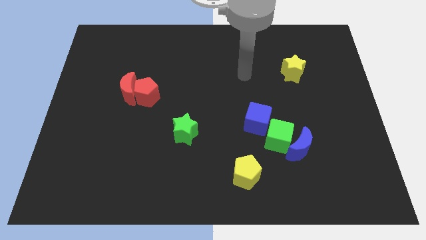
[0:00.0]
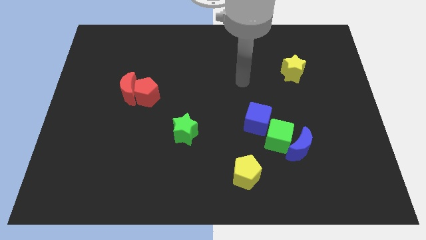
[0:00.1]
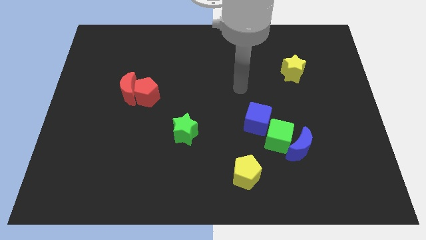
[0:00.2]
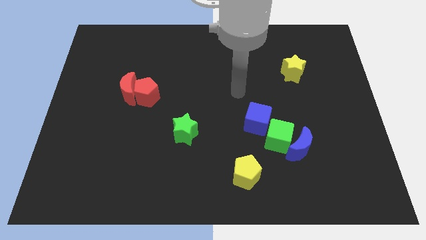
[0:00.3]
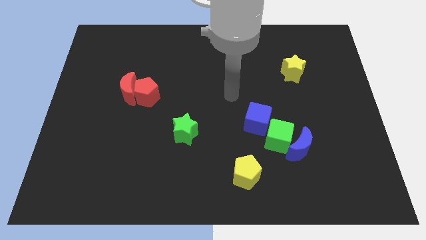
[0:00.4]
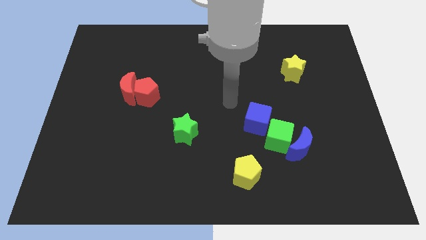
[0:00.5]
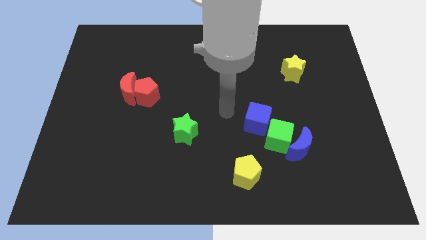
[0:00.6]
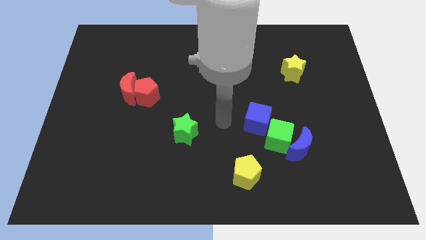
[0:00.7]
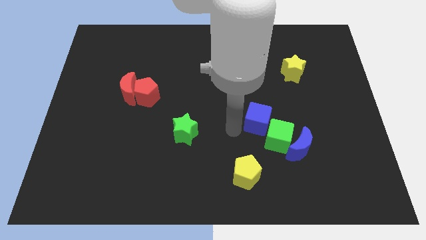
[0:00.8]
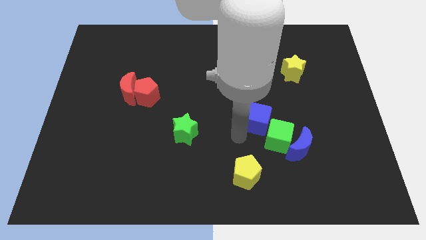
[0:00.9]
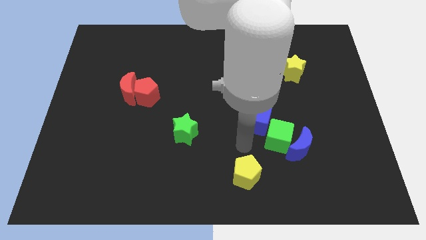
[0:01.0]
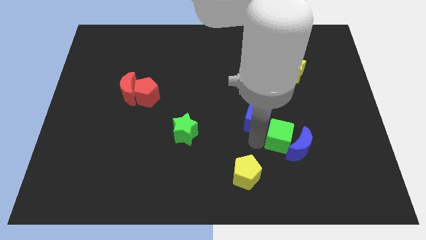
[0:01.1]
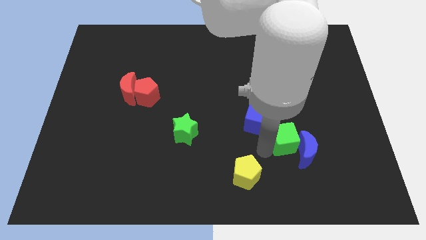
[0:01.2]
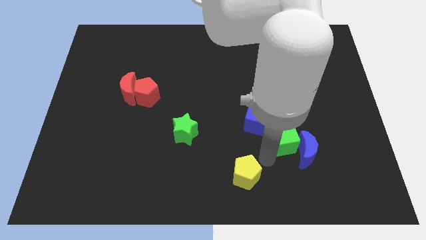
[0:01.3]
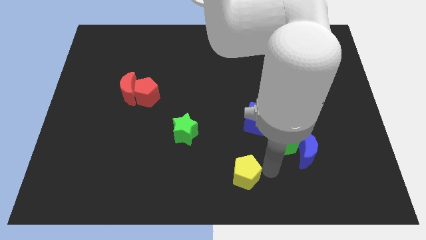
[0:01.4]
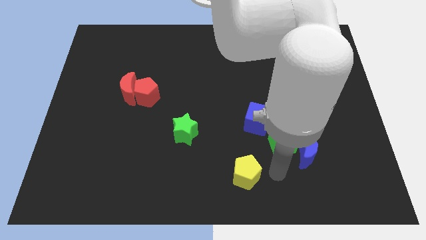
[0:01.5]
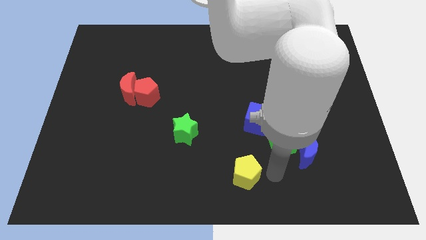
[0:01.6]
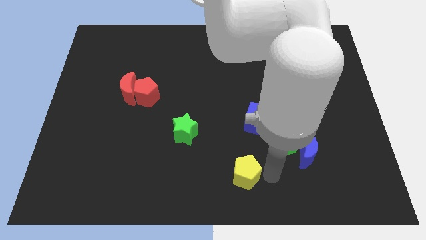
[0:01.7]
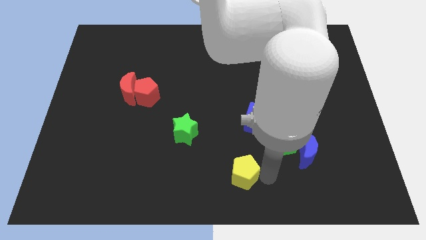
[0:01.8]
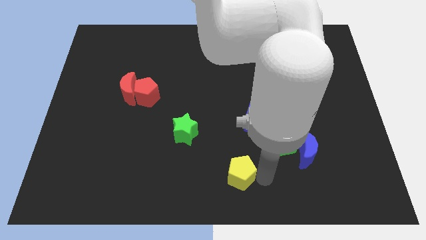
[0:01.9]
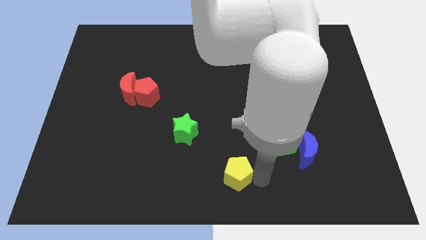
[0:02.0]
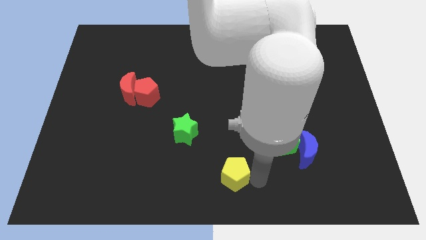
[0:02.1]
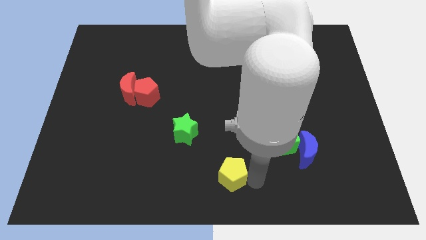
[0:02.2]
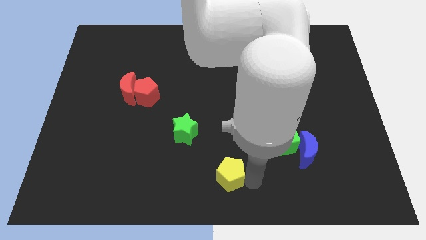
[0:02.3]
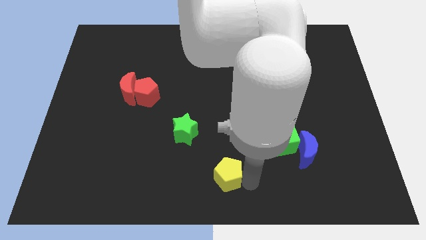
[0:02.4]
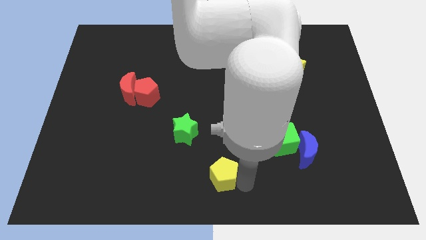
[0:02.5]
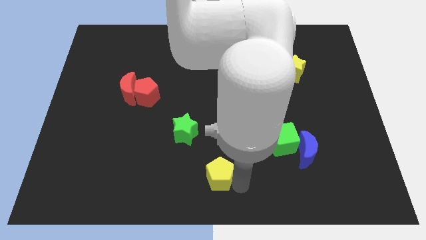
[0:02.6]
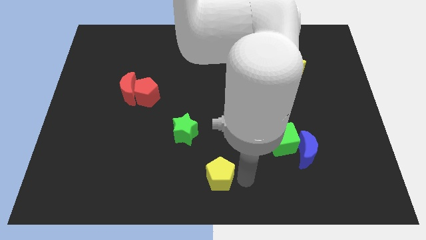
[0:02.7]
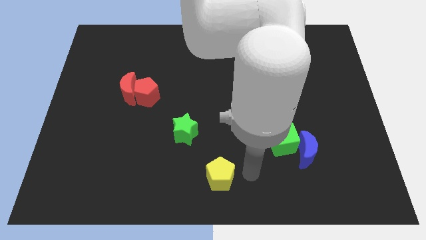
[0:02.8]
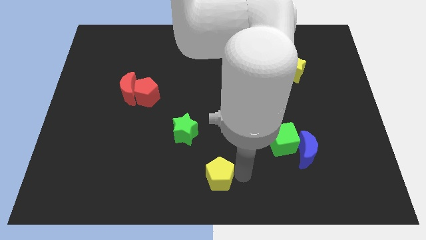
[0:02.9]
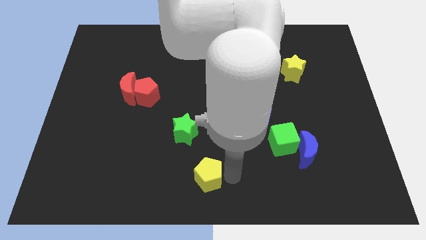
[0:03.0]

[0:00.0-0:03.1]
push the yellow pentagon left a little bit

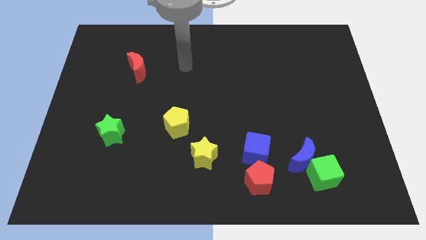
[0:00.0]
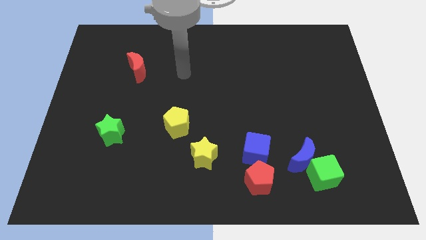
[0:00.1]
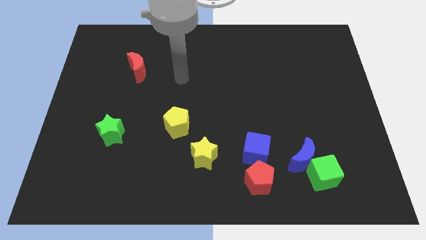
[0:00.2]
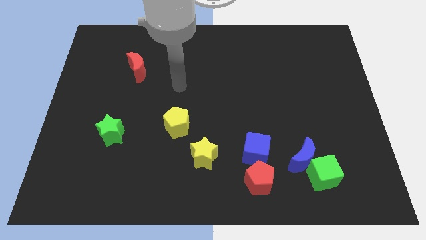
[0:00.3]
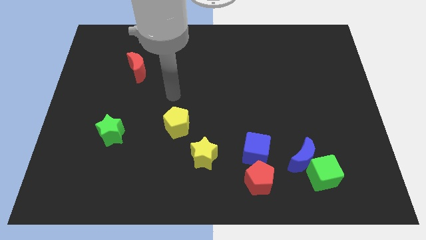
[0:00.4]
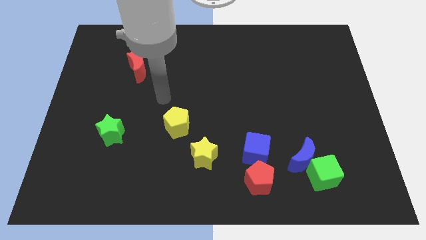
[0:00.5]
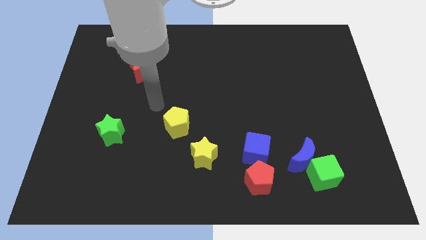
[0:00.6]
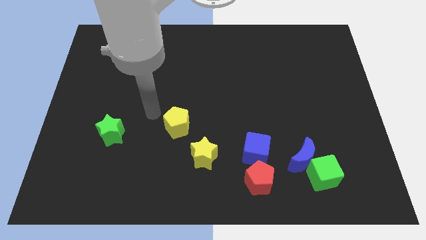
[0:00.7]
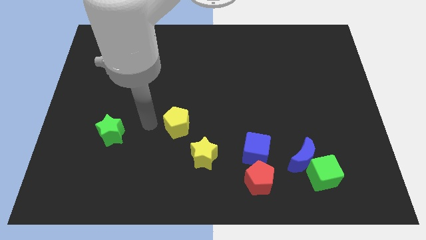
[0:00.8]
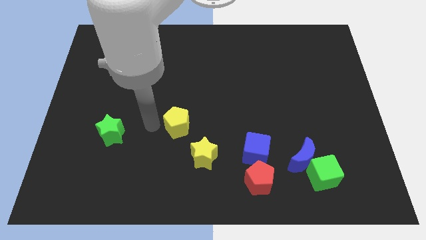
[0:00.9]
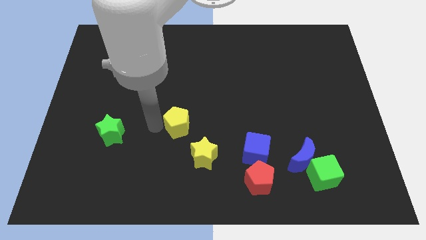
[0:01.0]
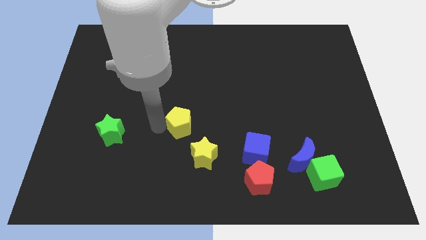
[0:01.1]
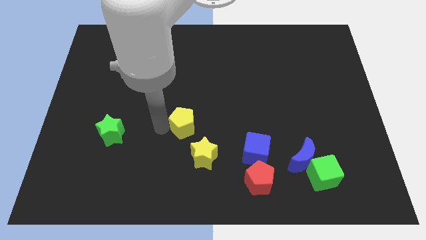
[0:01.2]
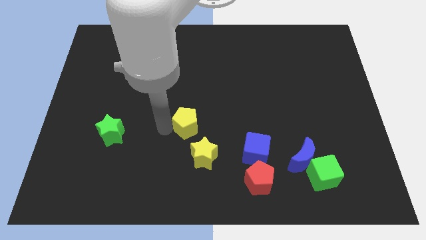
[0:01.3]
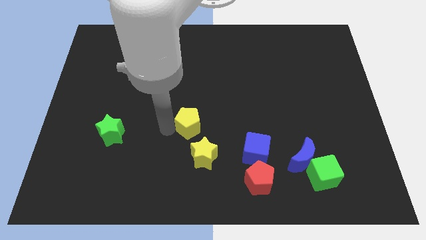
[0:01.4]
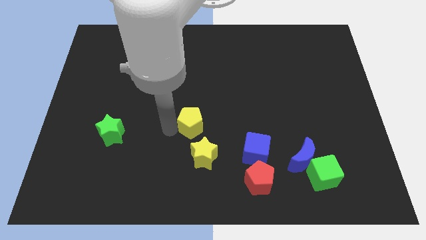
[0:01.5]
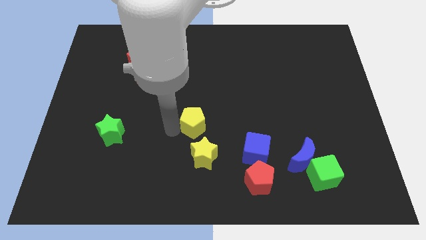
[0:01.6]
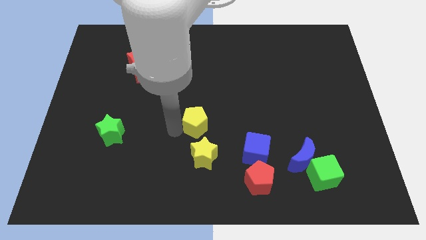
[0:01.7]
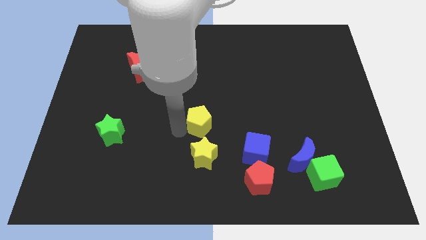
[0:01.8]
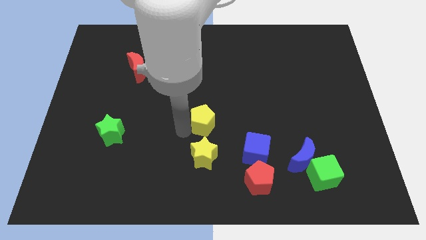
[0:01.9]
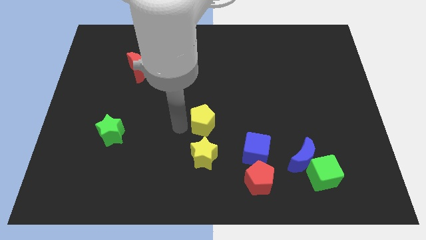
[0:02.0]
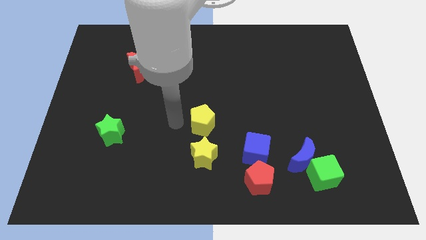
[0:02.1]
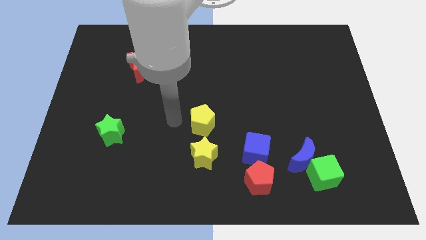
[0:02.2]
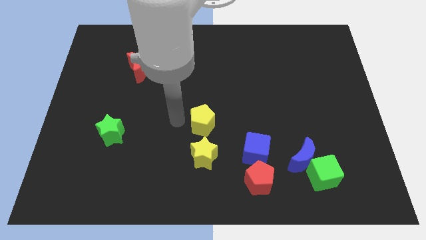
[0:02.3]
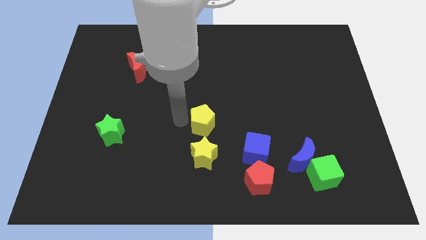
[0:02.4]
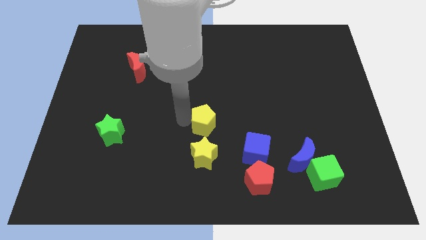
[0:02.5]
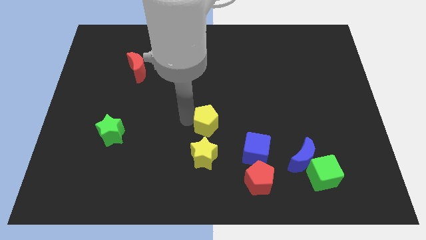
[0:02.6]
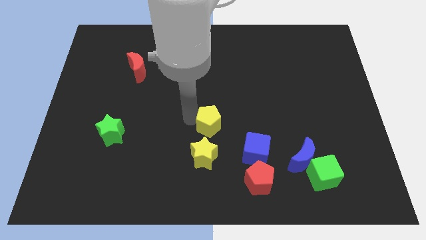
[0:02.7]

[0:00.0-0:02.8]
slightly slide the yellow pentagon to the right

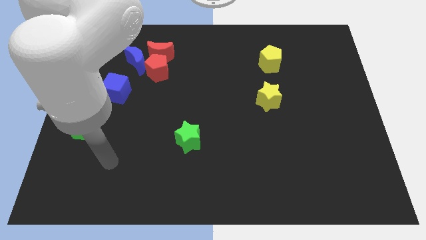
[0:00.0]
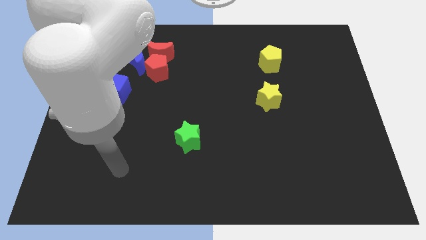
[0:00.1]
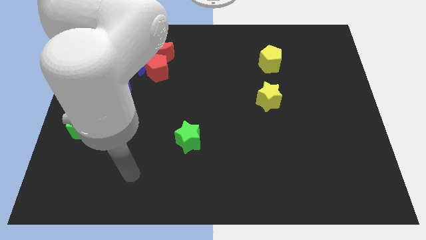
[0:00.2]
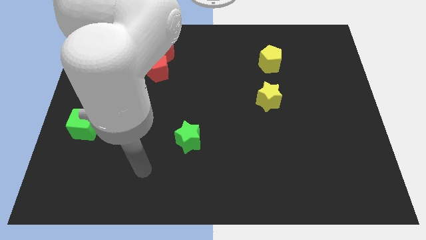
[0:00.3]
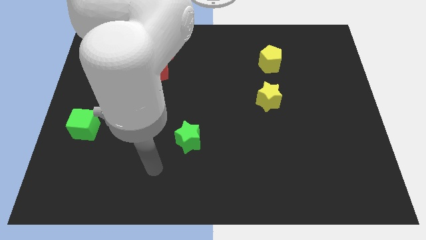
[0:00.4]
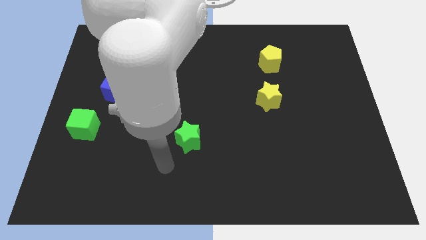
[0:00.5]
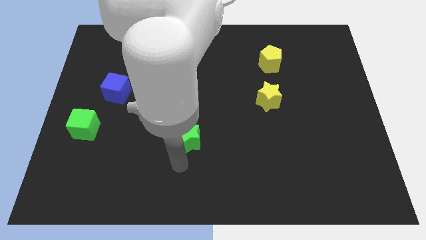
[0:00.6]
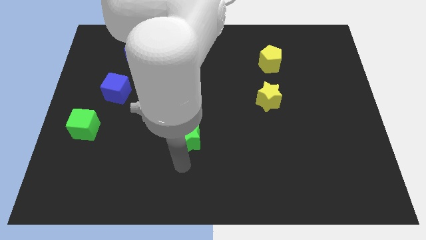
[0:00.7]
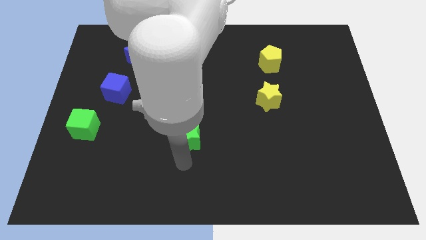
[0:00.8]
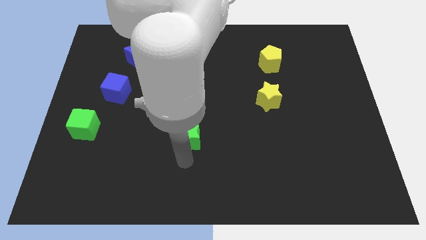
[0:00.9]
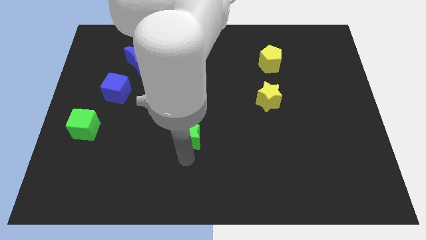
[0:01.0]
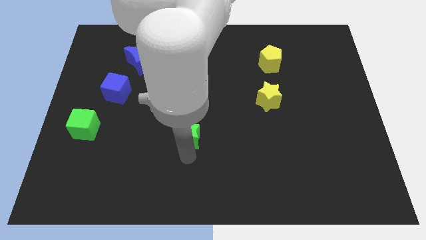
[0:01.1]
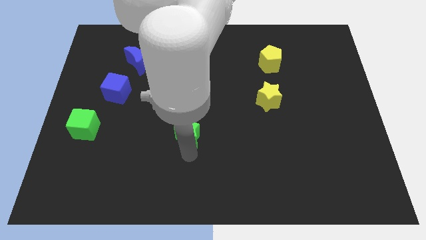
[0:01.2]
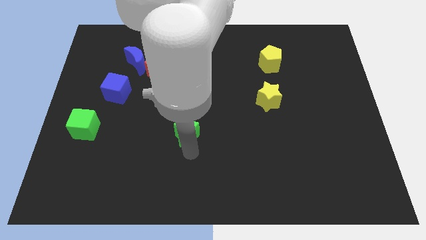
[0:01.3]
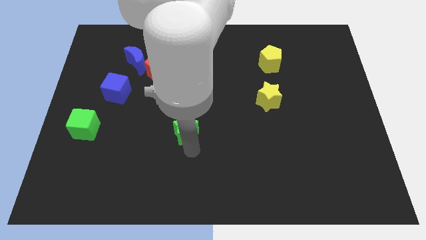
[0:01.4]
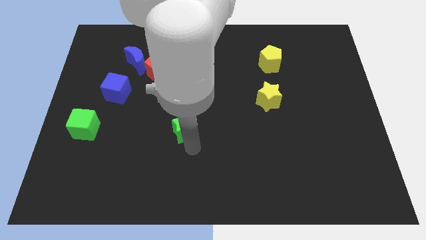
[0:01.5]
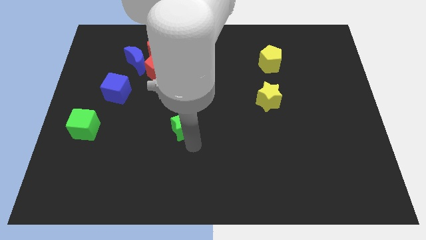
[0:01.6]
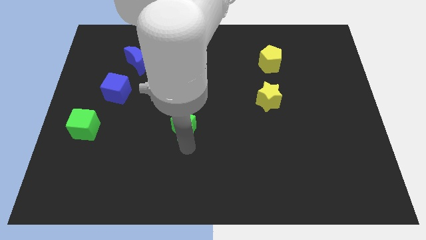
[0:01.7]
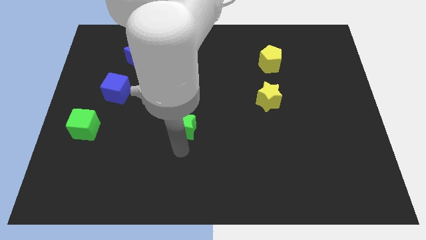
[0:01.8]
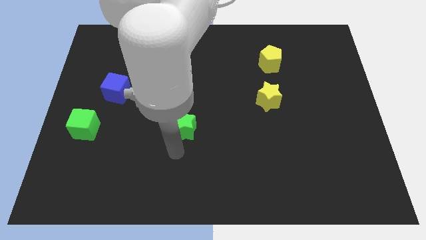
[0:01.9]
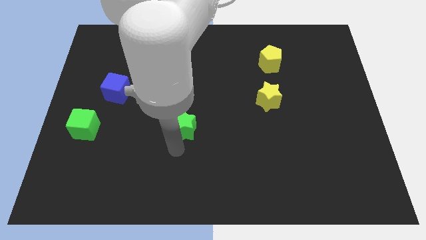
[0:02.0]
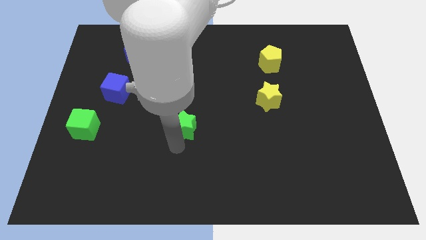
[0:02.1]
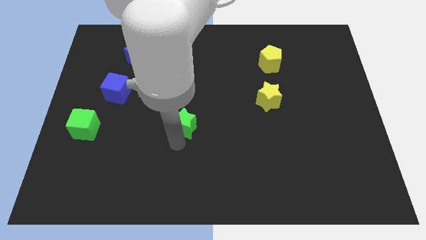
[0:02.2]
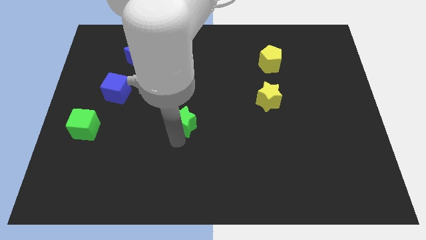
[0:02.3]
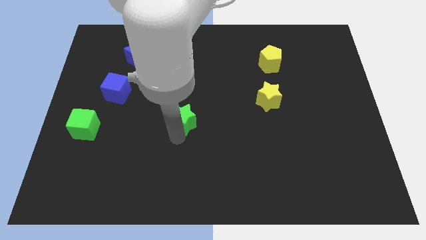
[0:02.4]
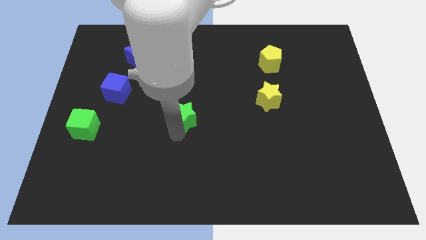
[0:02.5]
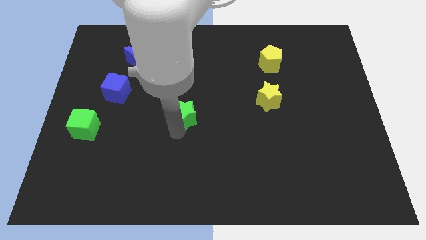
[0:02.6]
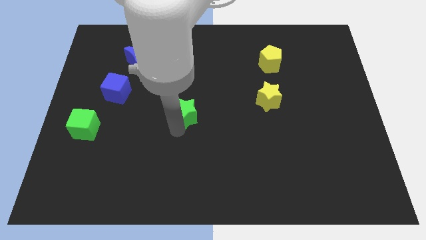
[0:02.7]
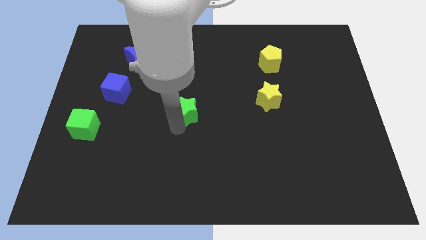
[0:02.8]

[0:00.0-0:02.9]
slide the green star a little up
